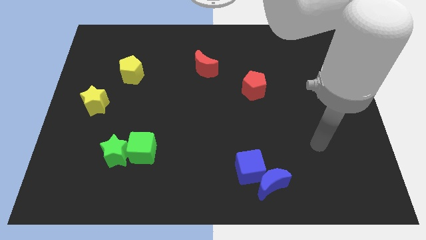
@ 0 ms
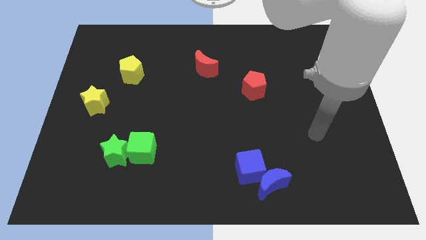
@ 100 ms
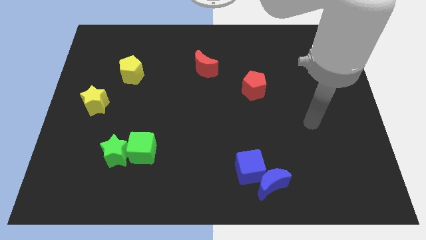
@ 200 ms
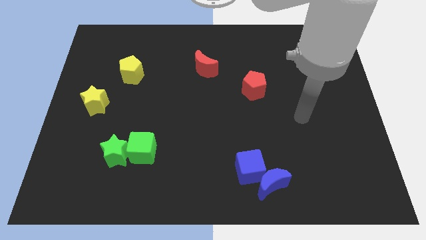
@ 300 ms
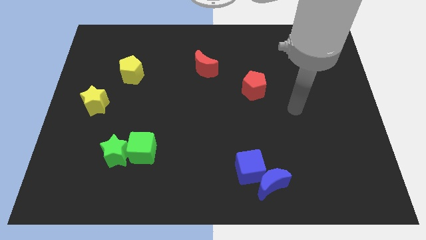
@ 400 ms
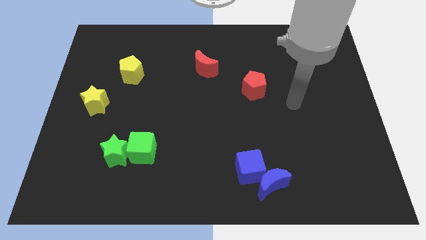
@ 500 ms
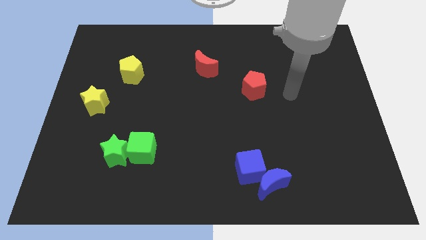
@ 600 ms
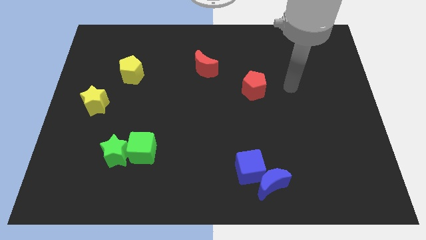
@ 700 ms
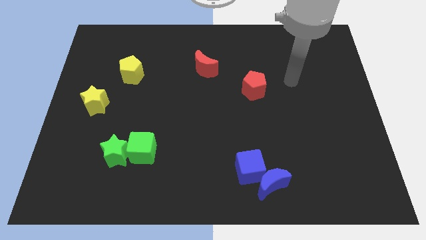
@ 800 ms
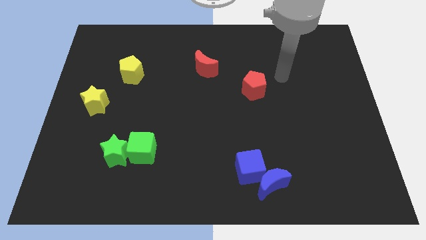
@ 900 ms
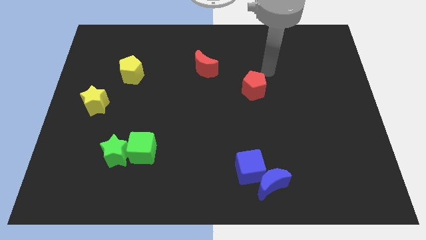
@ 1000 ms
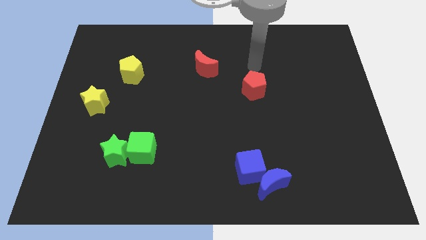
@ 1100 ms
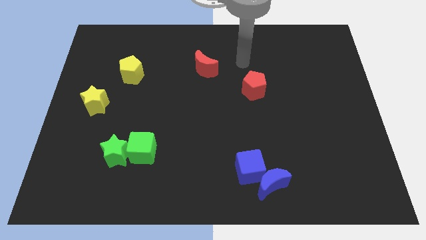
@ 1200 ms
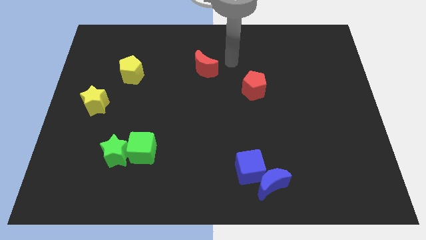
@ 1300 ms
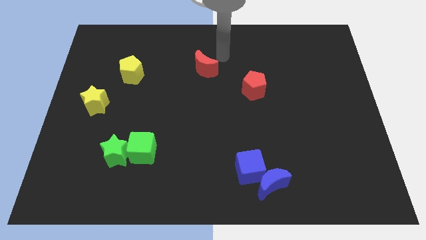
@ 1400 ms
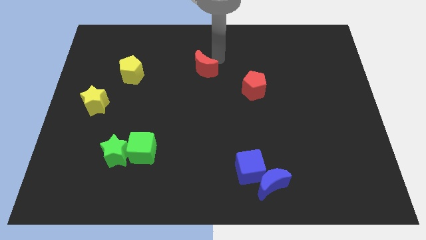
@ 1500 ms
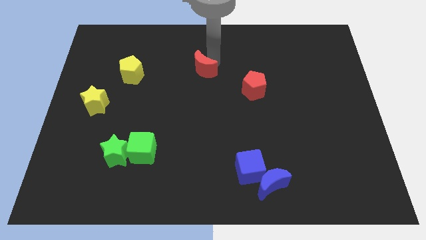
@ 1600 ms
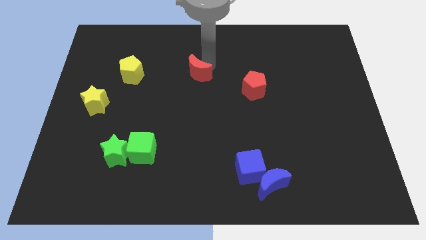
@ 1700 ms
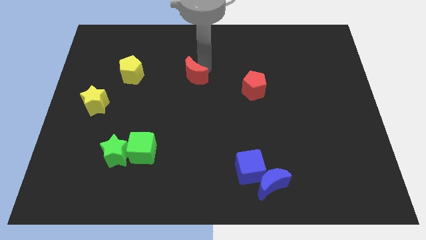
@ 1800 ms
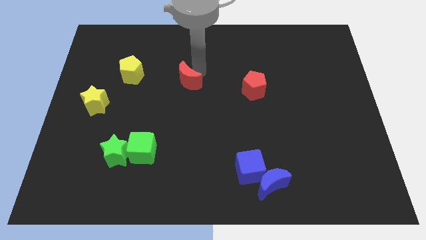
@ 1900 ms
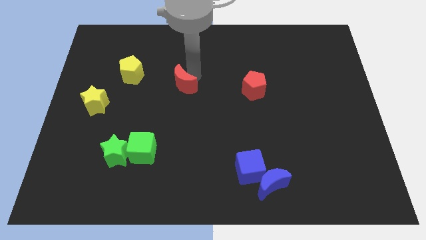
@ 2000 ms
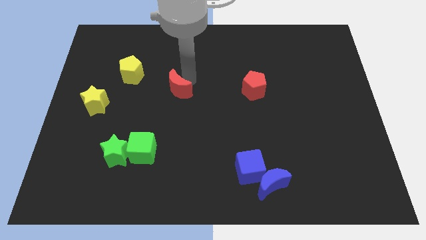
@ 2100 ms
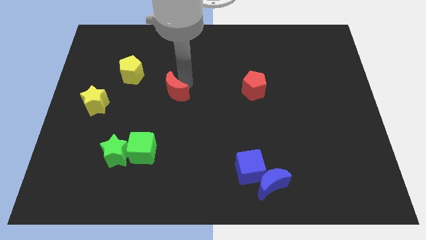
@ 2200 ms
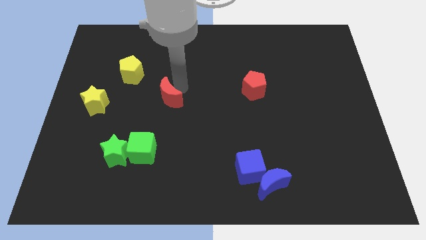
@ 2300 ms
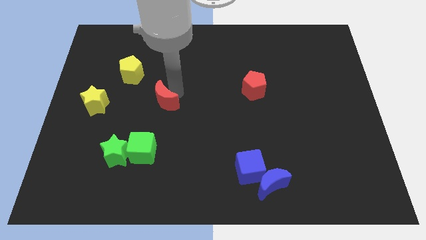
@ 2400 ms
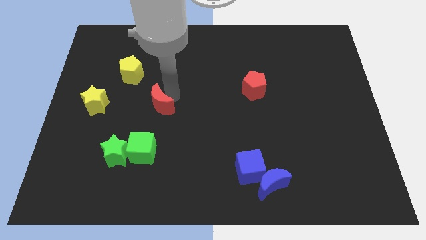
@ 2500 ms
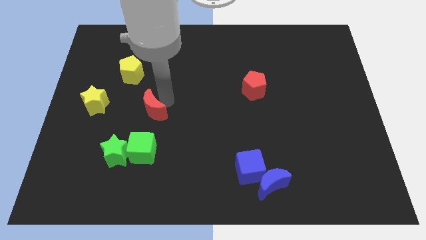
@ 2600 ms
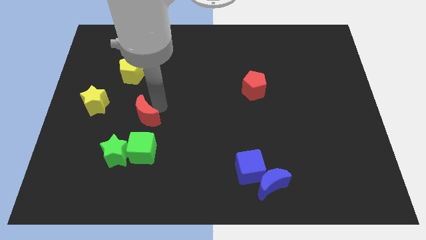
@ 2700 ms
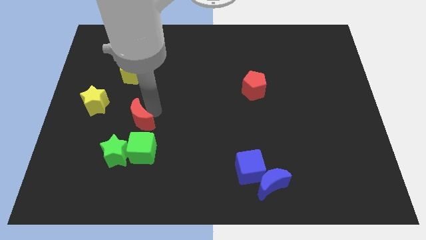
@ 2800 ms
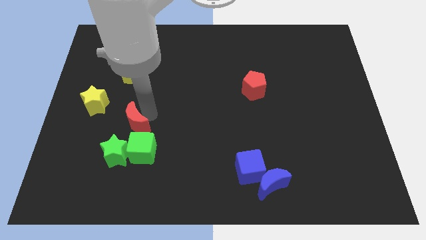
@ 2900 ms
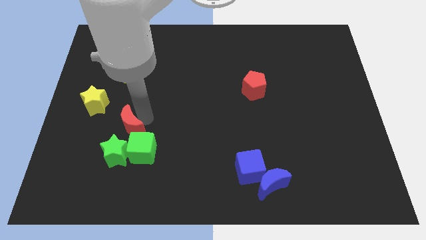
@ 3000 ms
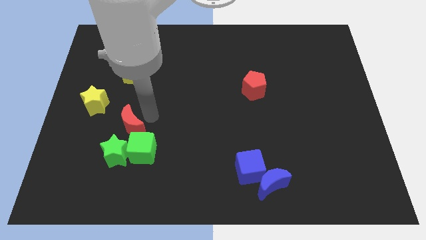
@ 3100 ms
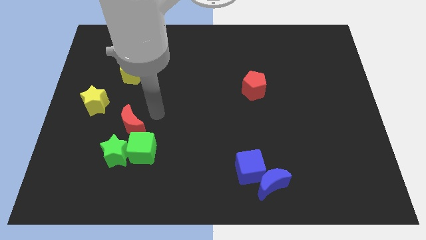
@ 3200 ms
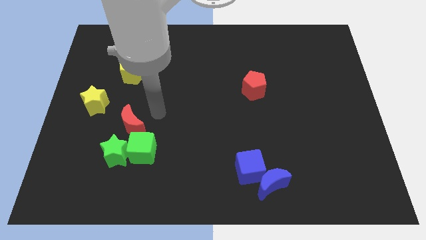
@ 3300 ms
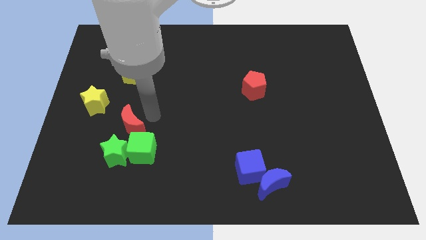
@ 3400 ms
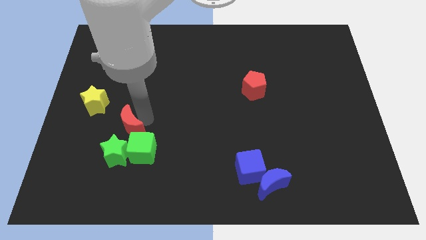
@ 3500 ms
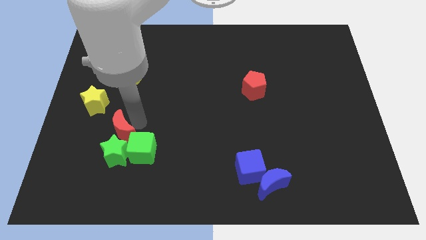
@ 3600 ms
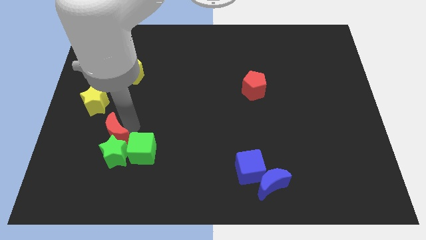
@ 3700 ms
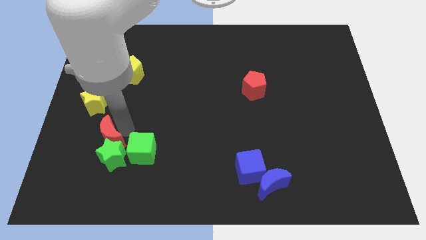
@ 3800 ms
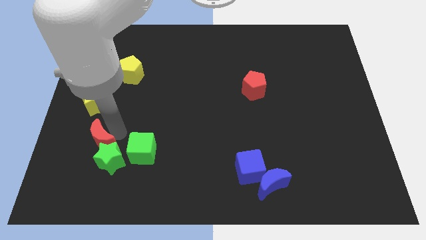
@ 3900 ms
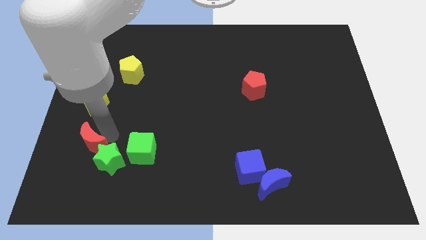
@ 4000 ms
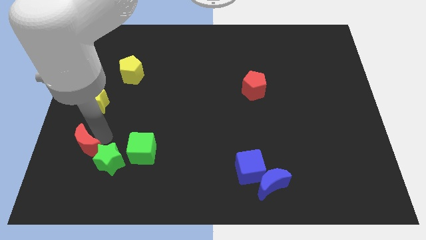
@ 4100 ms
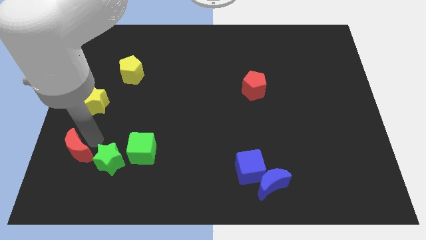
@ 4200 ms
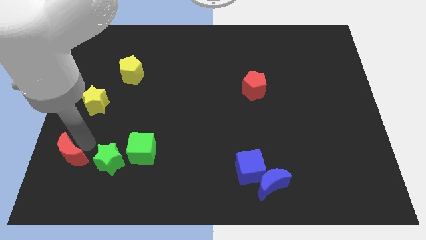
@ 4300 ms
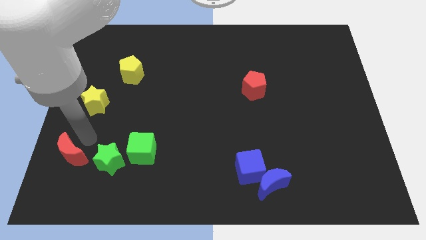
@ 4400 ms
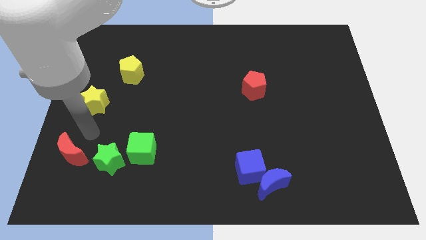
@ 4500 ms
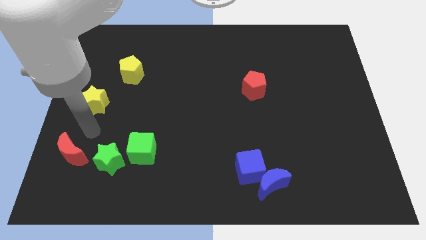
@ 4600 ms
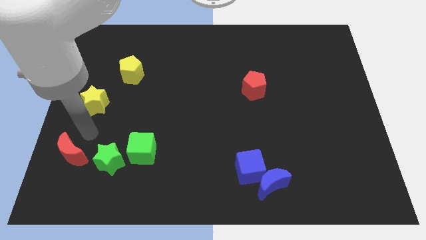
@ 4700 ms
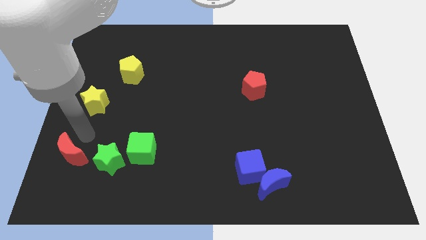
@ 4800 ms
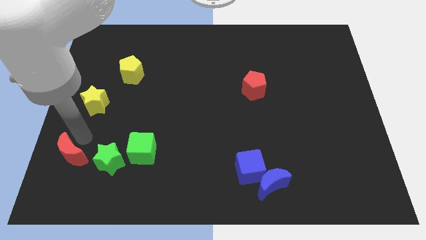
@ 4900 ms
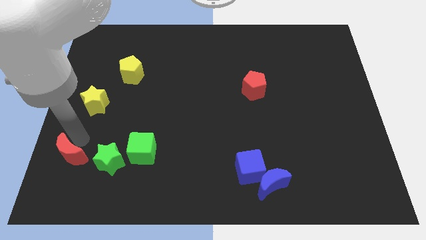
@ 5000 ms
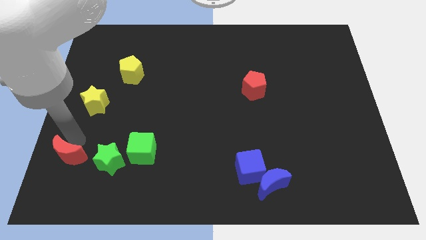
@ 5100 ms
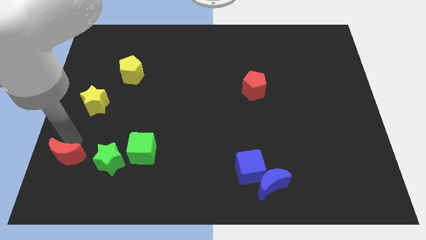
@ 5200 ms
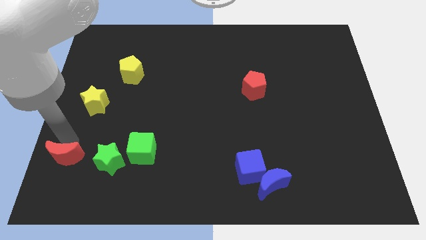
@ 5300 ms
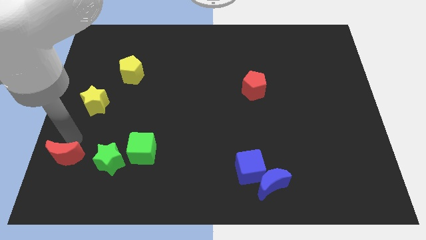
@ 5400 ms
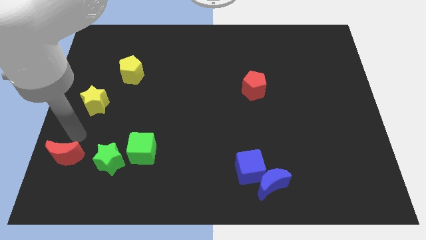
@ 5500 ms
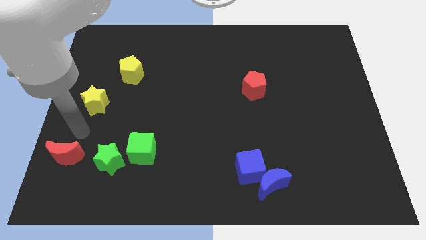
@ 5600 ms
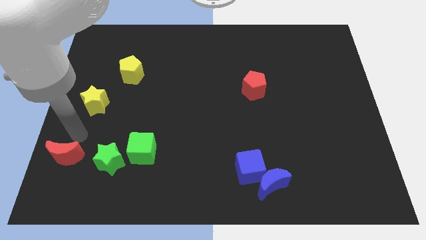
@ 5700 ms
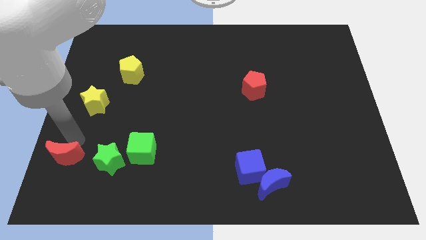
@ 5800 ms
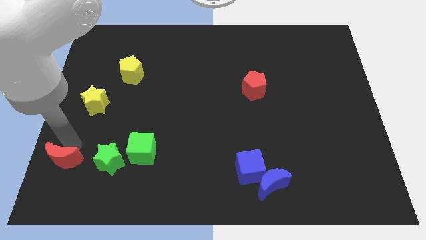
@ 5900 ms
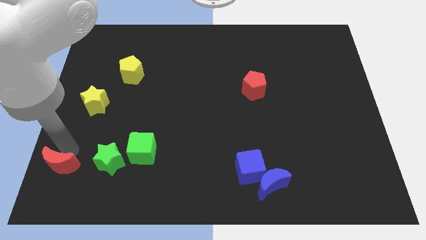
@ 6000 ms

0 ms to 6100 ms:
push the red moon to the bottom left corner

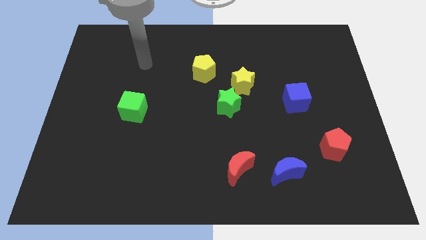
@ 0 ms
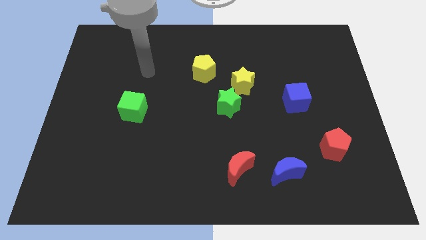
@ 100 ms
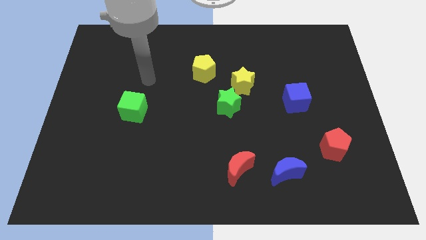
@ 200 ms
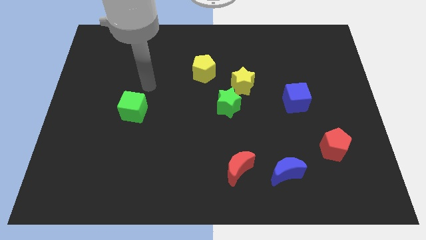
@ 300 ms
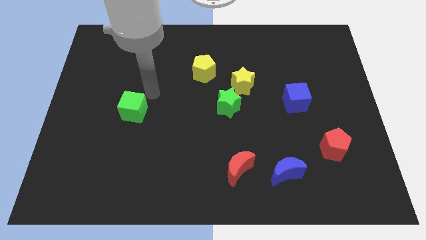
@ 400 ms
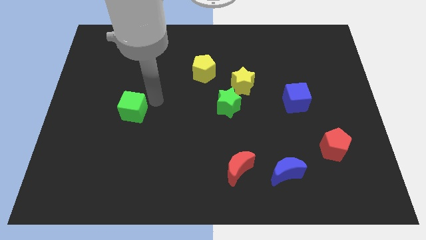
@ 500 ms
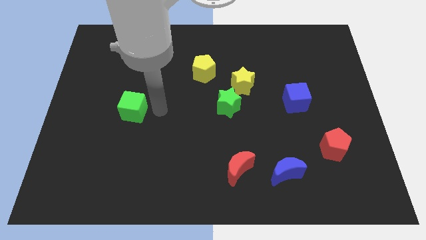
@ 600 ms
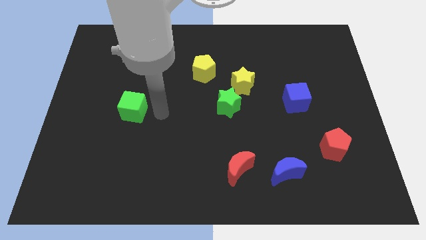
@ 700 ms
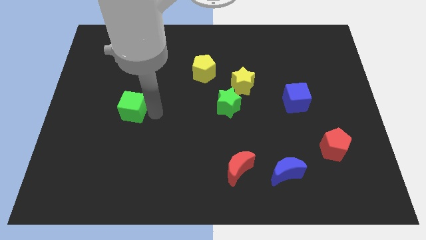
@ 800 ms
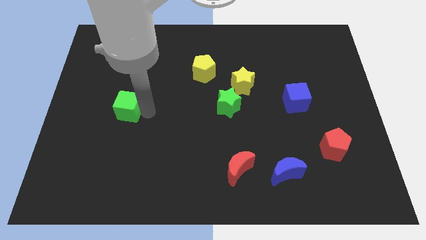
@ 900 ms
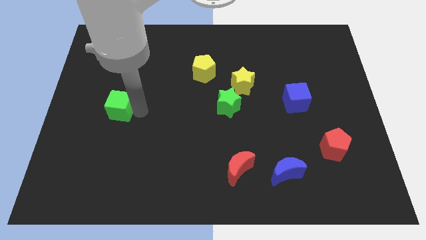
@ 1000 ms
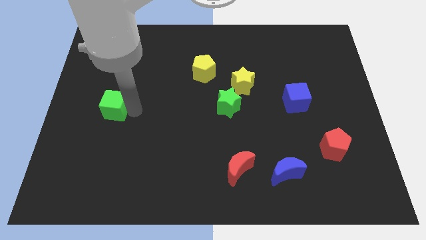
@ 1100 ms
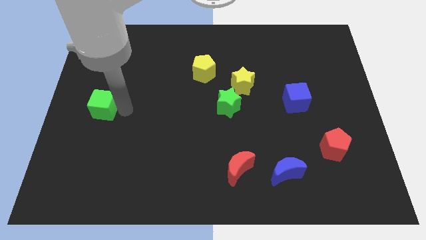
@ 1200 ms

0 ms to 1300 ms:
push the green cube to the center left
